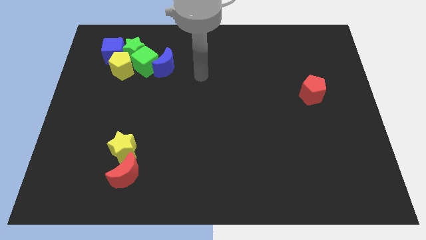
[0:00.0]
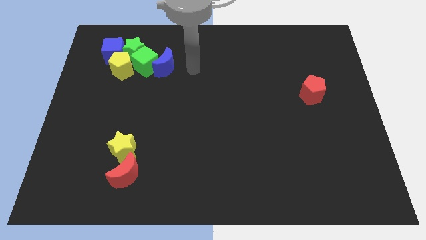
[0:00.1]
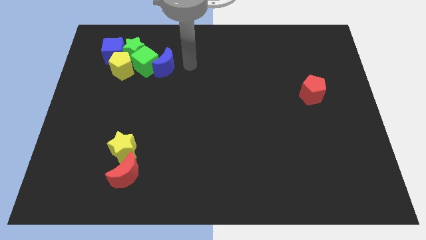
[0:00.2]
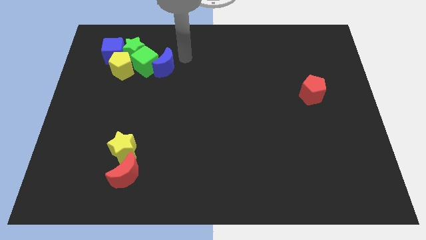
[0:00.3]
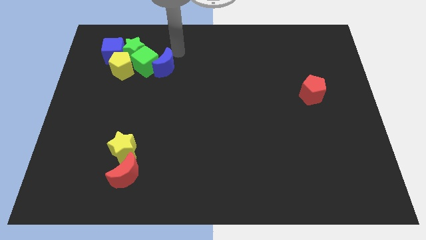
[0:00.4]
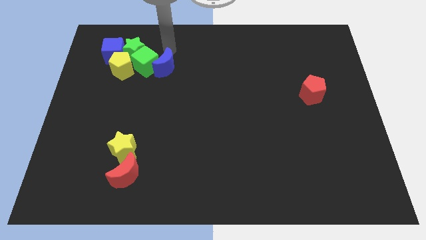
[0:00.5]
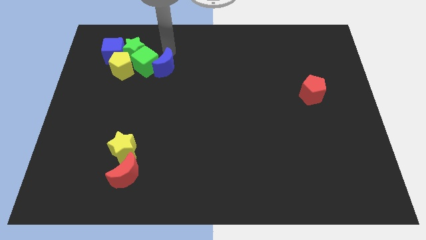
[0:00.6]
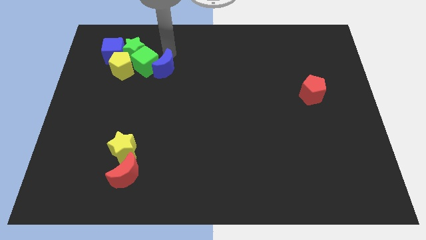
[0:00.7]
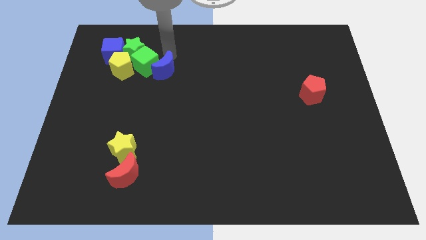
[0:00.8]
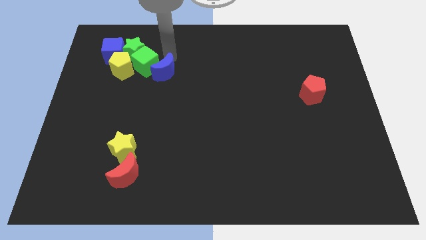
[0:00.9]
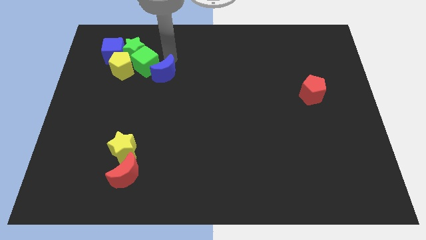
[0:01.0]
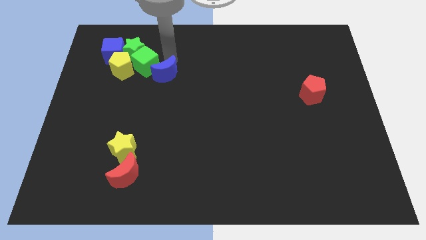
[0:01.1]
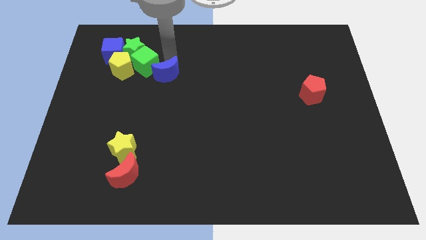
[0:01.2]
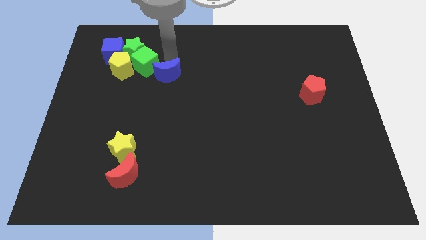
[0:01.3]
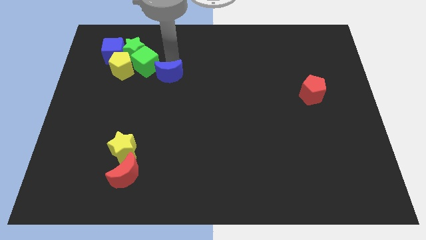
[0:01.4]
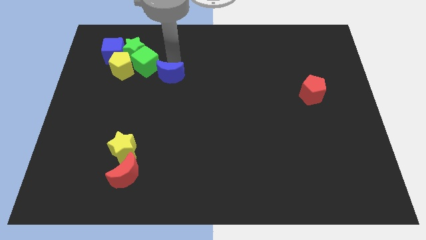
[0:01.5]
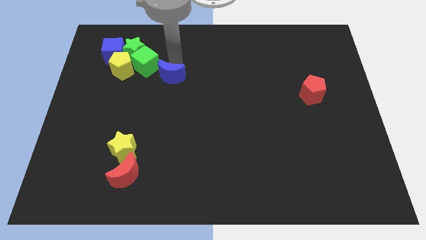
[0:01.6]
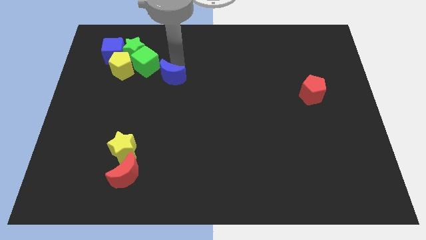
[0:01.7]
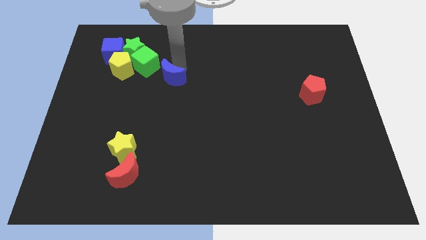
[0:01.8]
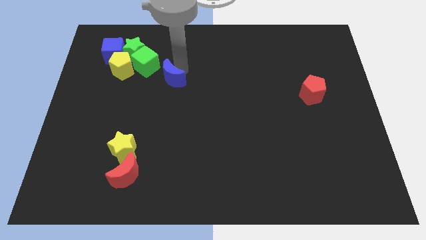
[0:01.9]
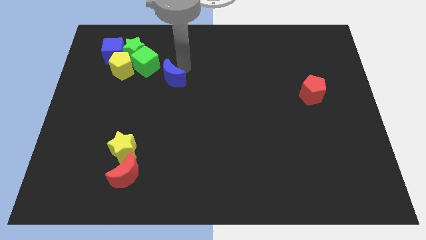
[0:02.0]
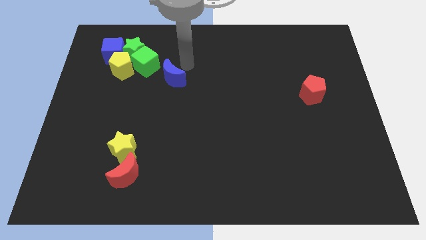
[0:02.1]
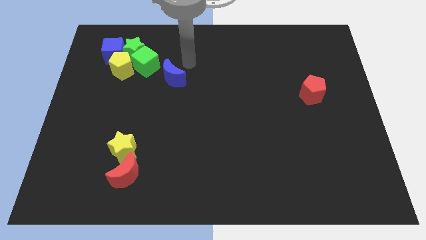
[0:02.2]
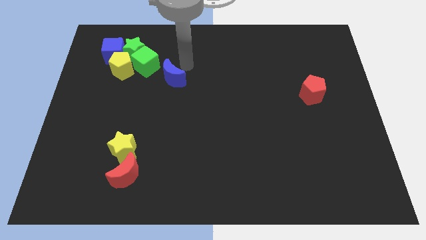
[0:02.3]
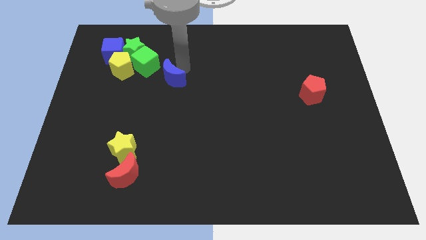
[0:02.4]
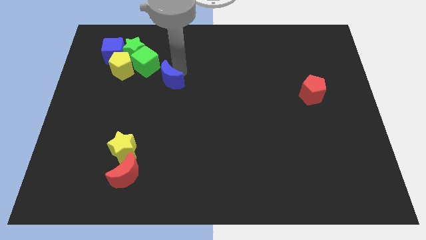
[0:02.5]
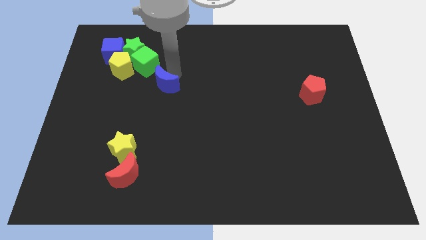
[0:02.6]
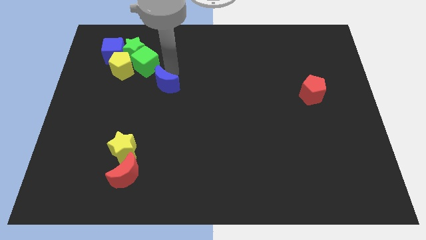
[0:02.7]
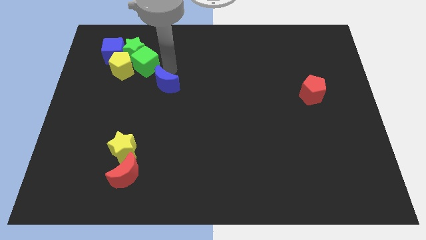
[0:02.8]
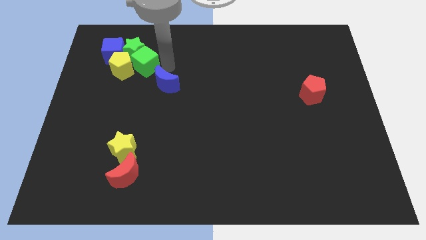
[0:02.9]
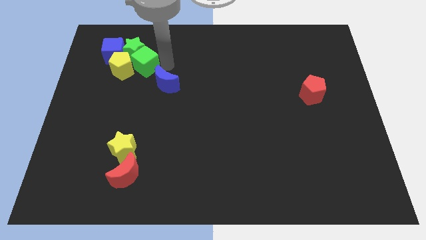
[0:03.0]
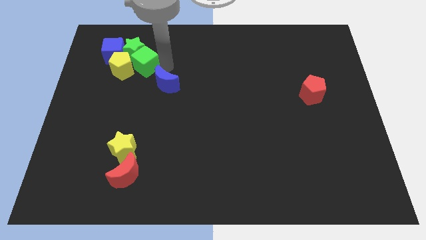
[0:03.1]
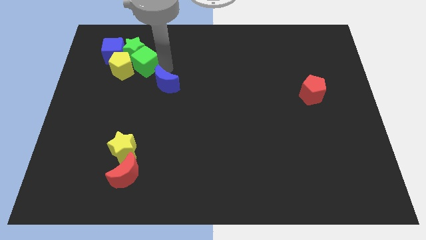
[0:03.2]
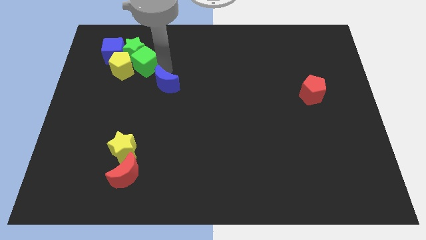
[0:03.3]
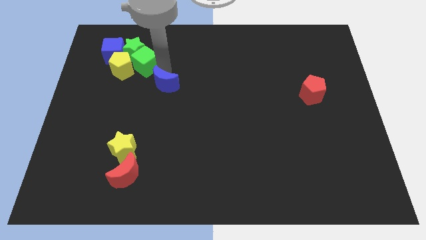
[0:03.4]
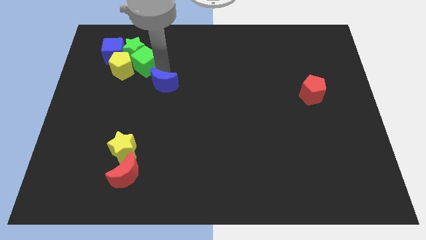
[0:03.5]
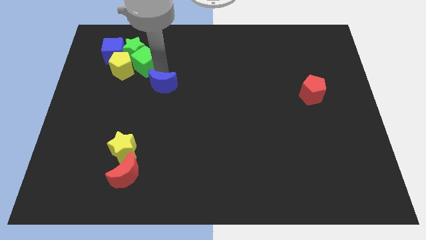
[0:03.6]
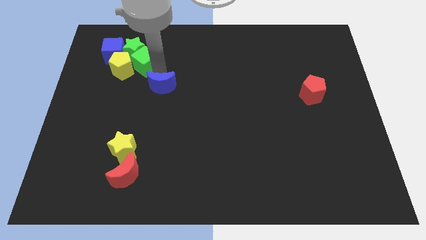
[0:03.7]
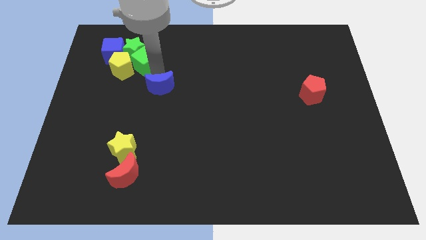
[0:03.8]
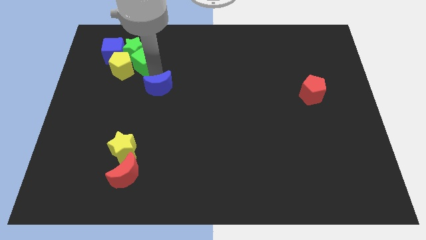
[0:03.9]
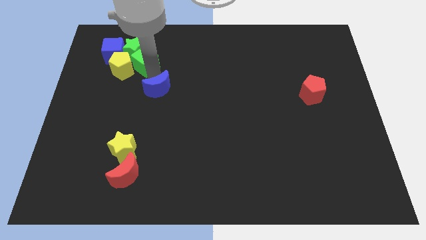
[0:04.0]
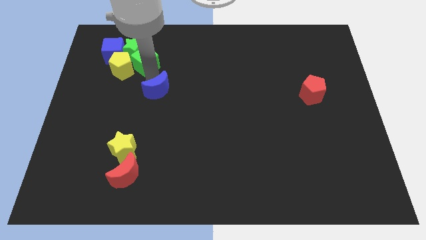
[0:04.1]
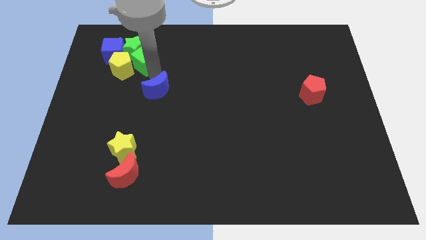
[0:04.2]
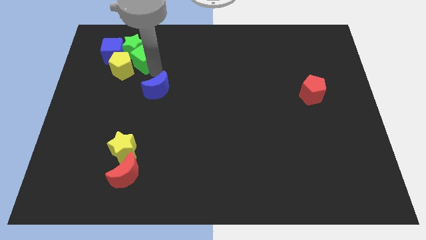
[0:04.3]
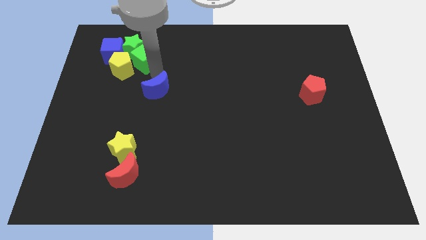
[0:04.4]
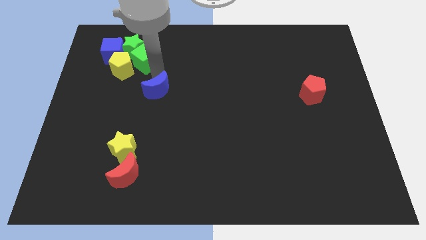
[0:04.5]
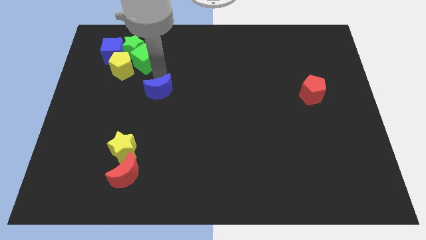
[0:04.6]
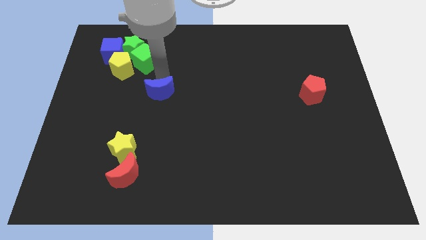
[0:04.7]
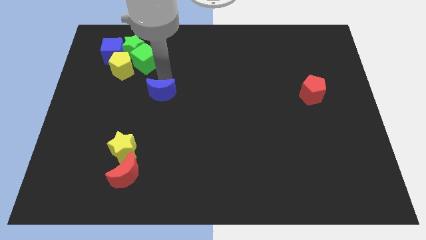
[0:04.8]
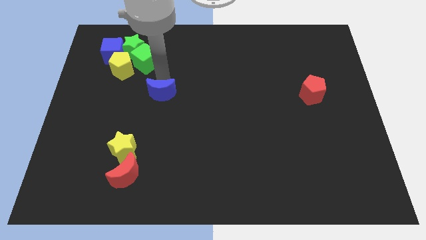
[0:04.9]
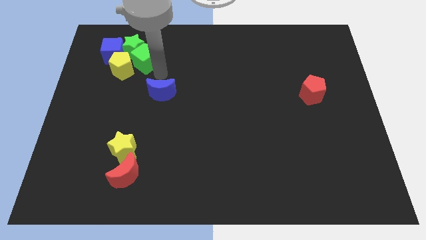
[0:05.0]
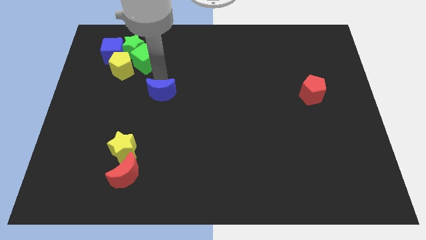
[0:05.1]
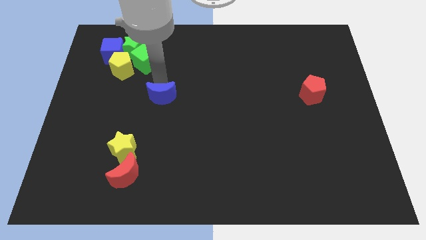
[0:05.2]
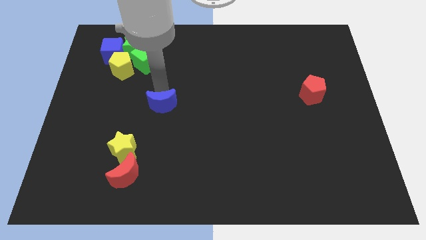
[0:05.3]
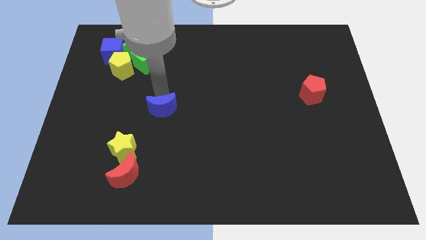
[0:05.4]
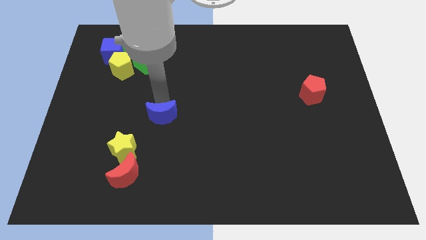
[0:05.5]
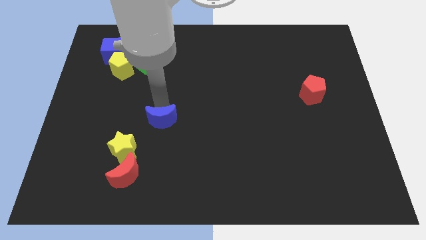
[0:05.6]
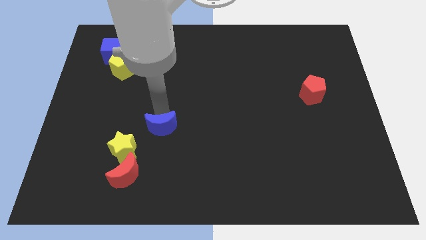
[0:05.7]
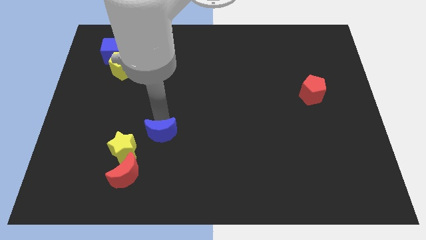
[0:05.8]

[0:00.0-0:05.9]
slide the blue moon downwards

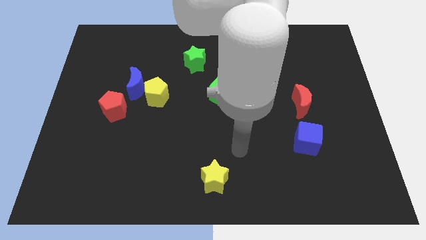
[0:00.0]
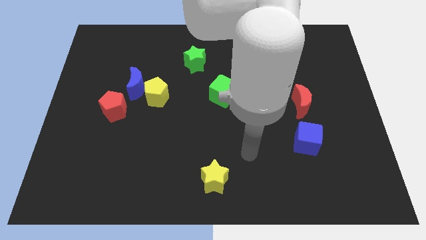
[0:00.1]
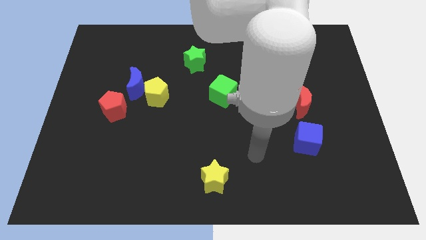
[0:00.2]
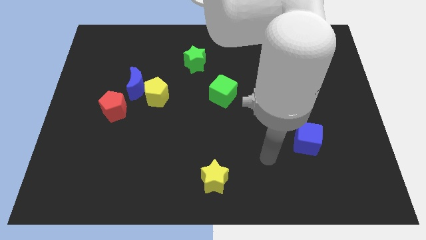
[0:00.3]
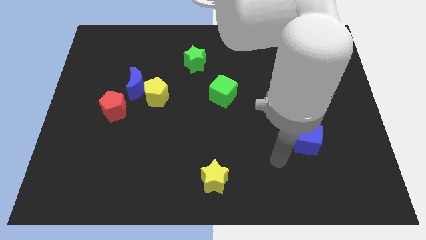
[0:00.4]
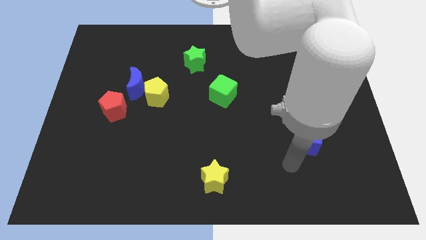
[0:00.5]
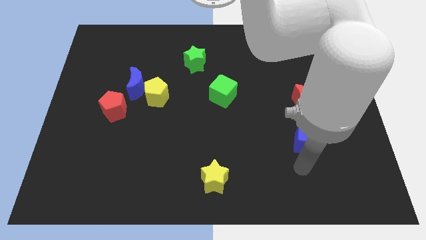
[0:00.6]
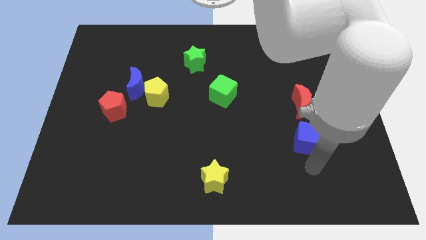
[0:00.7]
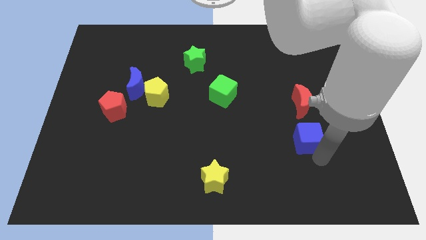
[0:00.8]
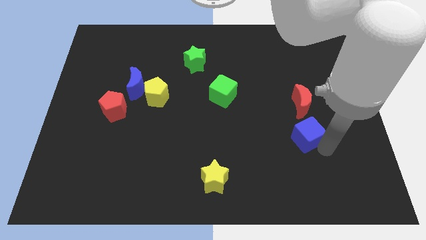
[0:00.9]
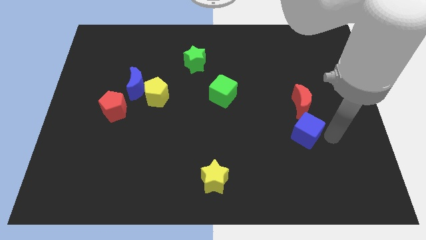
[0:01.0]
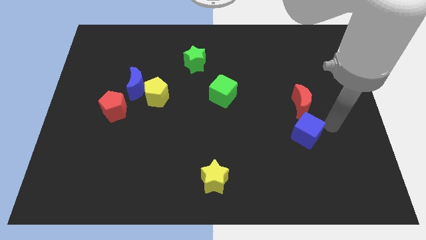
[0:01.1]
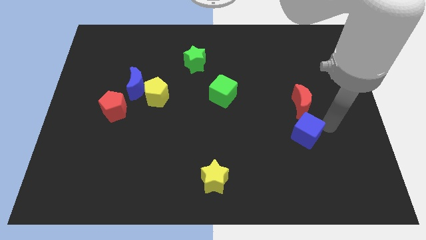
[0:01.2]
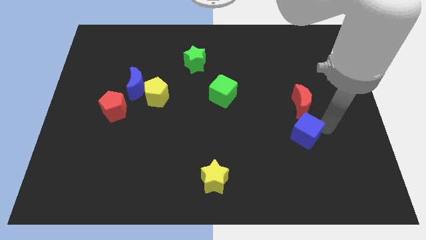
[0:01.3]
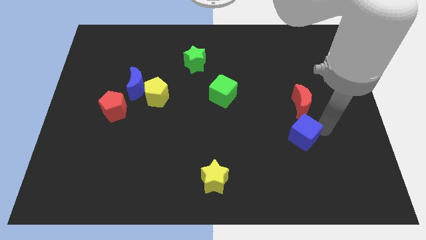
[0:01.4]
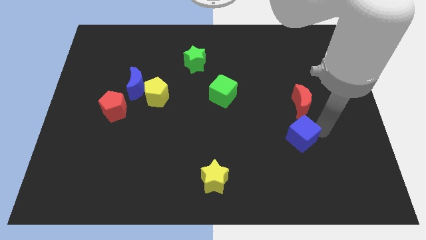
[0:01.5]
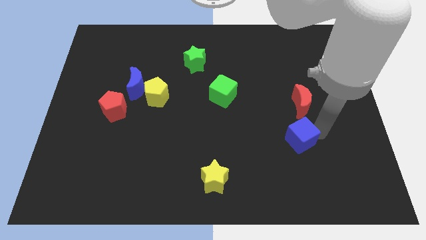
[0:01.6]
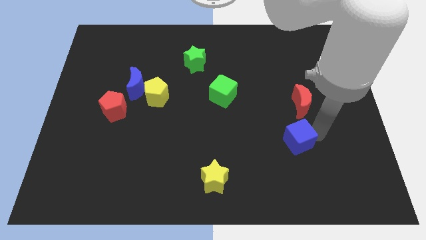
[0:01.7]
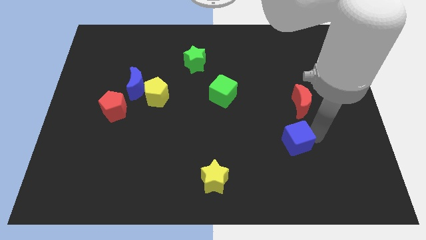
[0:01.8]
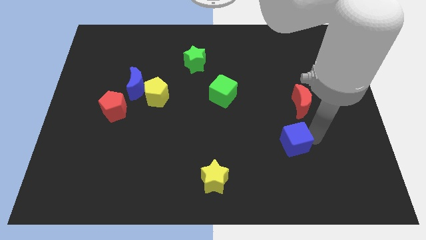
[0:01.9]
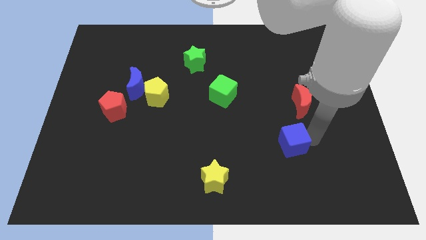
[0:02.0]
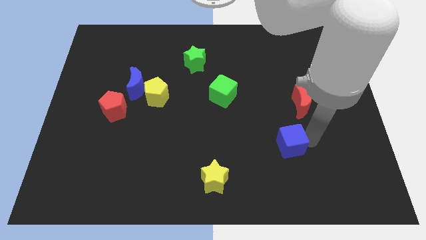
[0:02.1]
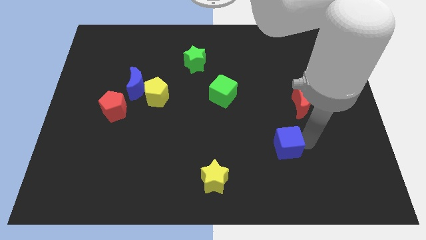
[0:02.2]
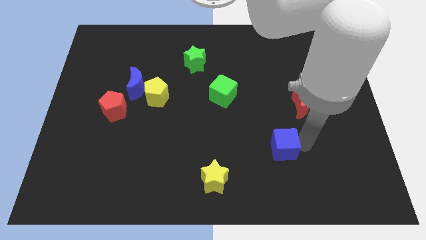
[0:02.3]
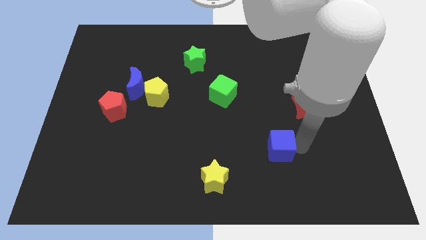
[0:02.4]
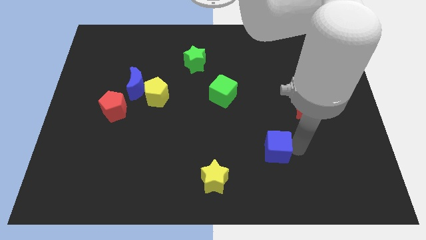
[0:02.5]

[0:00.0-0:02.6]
slightly push the blue cube to the left
